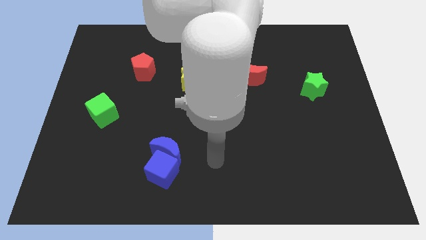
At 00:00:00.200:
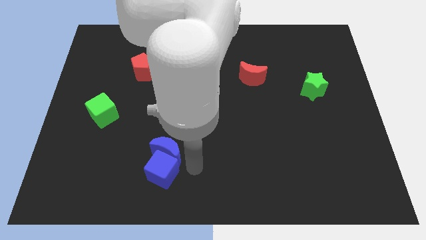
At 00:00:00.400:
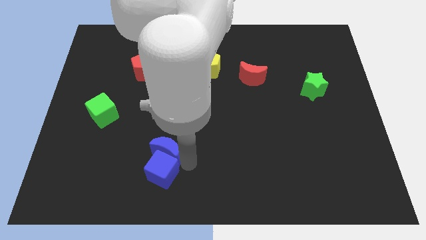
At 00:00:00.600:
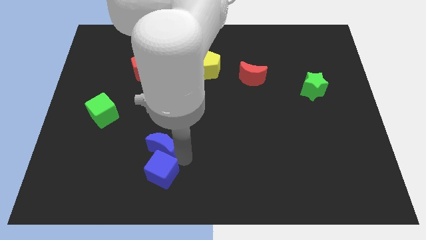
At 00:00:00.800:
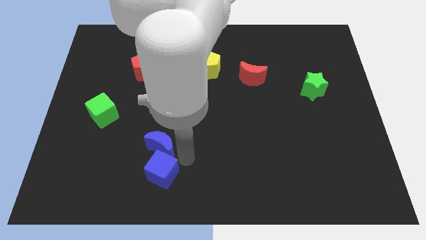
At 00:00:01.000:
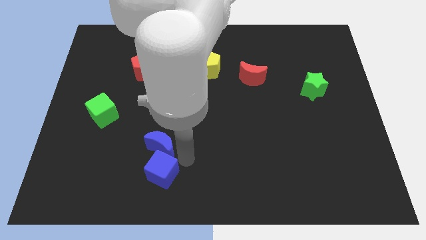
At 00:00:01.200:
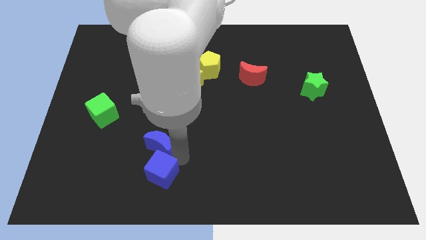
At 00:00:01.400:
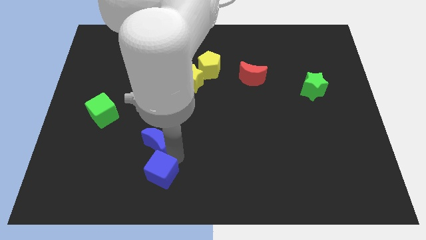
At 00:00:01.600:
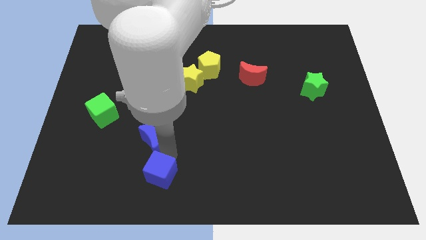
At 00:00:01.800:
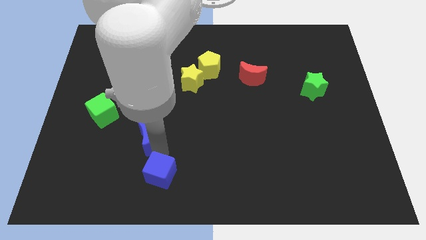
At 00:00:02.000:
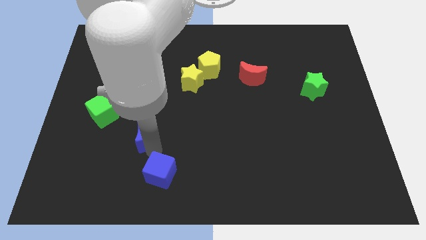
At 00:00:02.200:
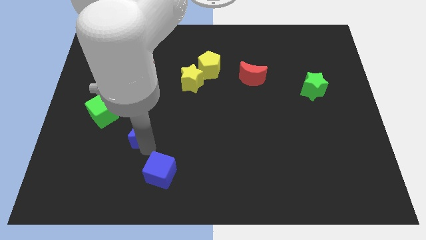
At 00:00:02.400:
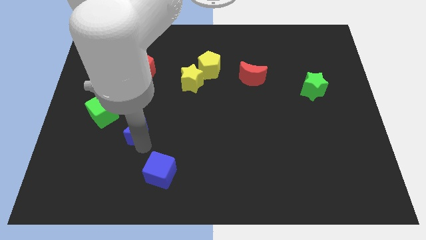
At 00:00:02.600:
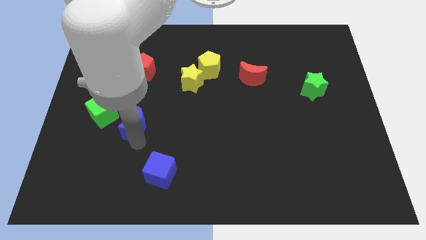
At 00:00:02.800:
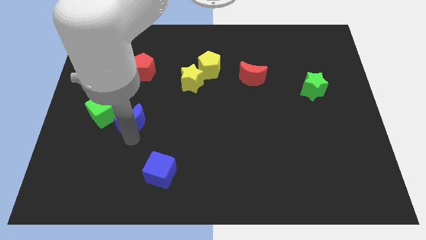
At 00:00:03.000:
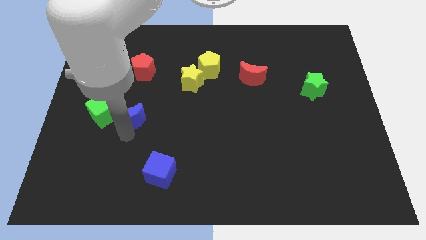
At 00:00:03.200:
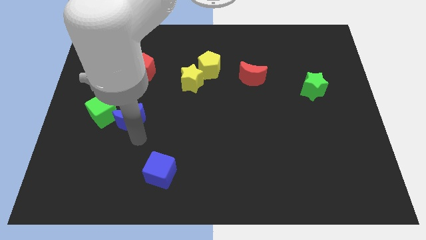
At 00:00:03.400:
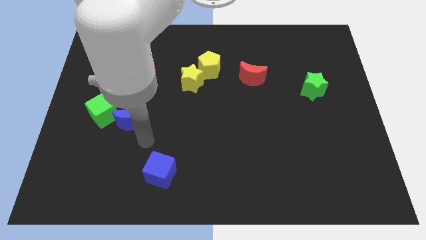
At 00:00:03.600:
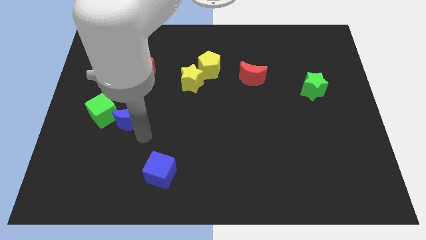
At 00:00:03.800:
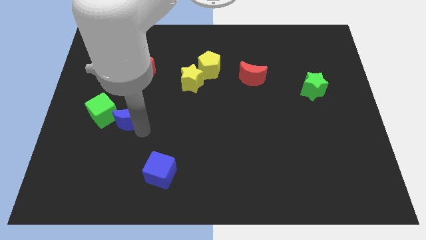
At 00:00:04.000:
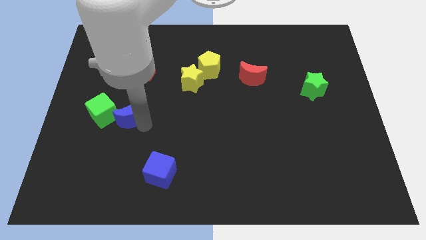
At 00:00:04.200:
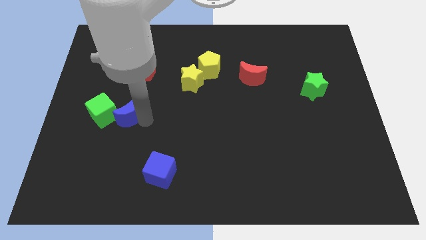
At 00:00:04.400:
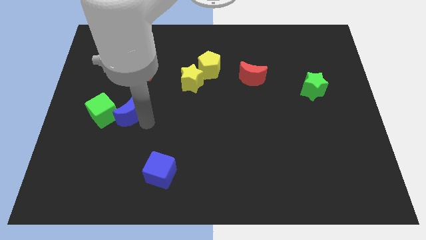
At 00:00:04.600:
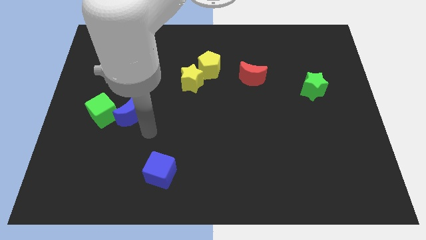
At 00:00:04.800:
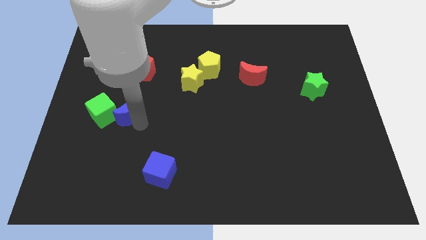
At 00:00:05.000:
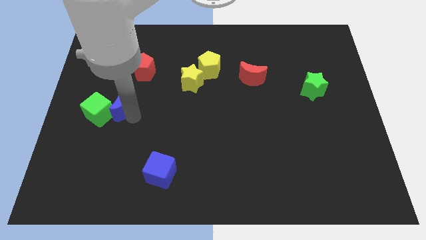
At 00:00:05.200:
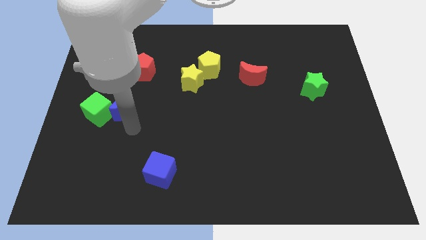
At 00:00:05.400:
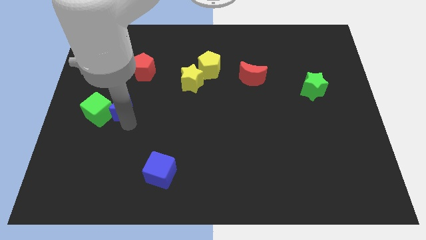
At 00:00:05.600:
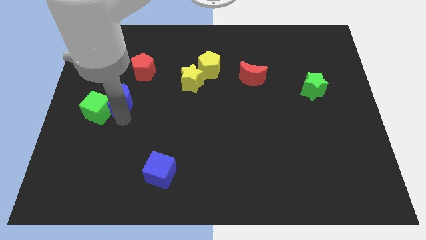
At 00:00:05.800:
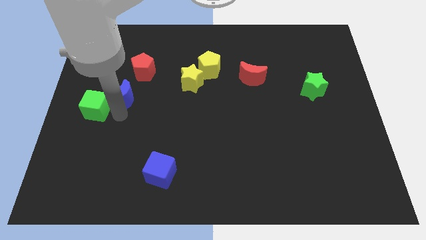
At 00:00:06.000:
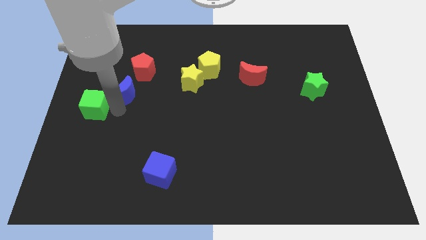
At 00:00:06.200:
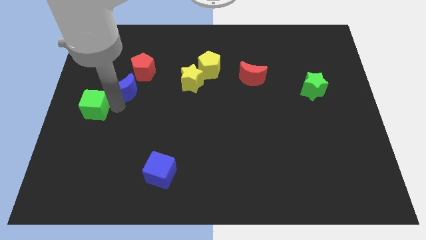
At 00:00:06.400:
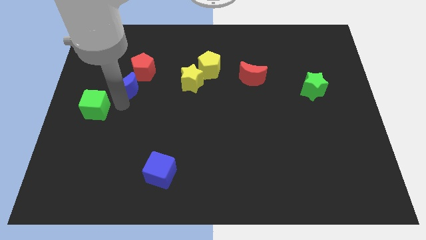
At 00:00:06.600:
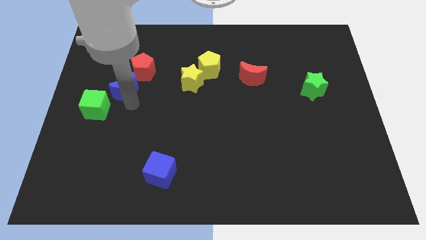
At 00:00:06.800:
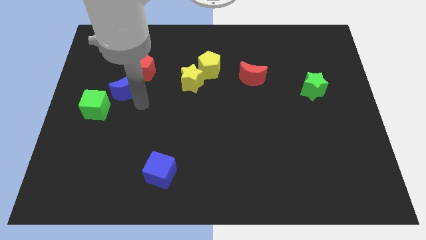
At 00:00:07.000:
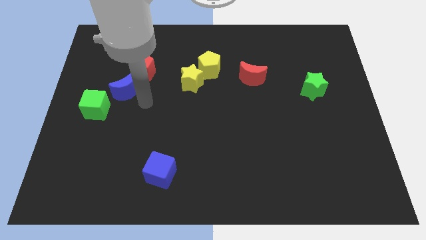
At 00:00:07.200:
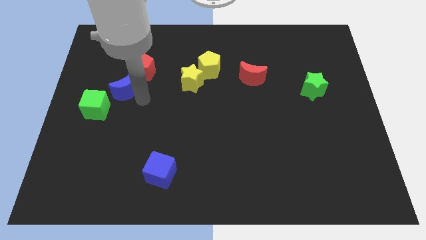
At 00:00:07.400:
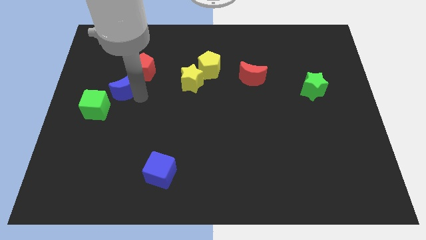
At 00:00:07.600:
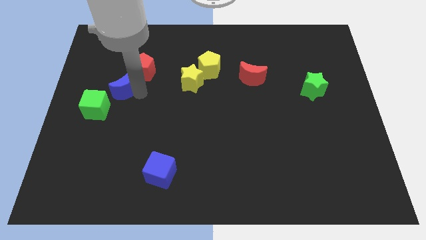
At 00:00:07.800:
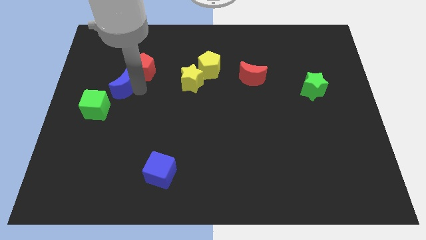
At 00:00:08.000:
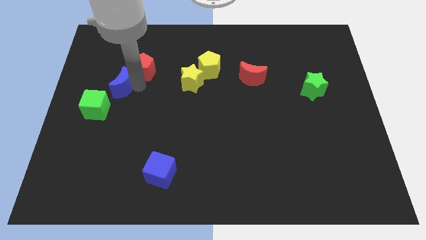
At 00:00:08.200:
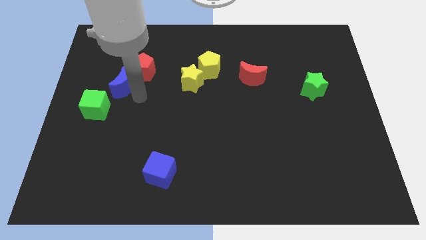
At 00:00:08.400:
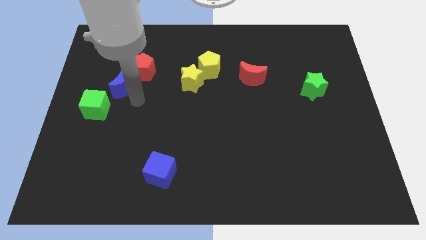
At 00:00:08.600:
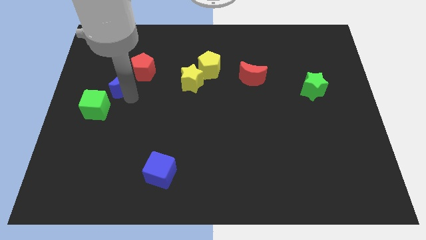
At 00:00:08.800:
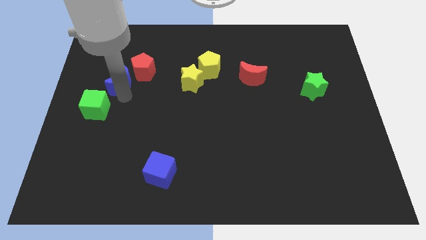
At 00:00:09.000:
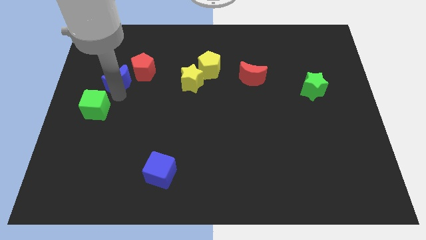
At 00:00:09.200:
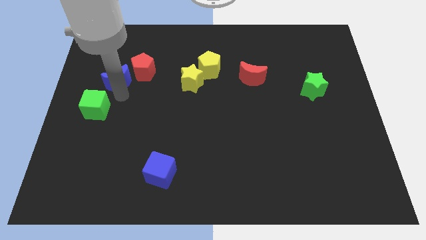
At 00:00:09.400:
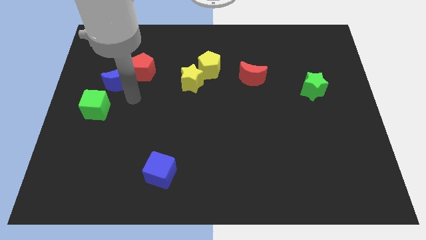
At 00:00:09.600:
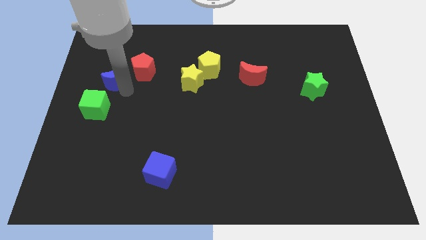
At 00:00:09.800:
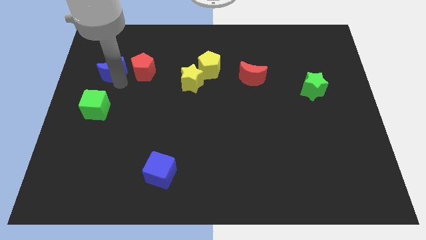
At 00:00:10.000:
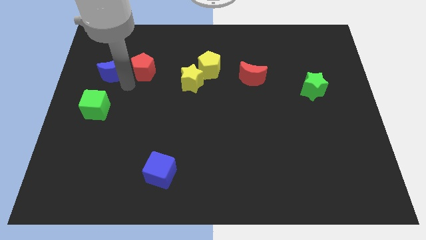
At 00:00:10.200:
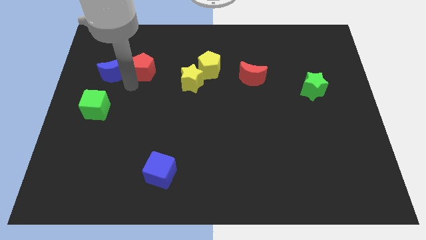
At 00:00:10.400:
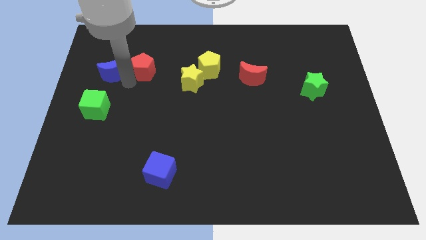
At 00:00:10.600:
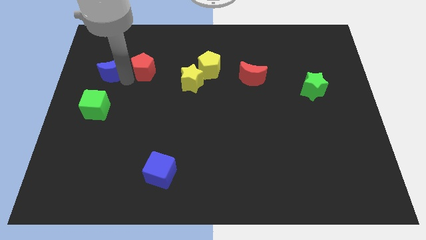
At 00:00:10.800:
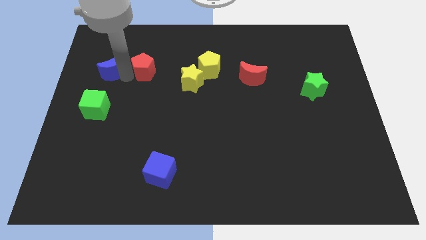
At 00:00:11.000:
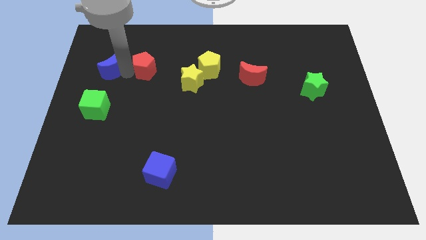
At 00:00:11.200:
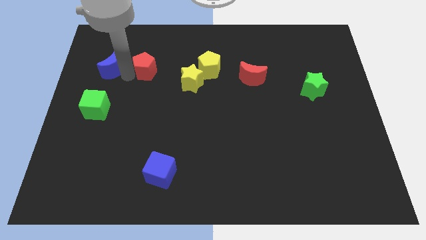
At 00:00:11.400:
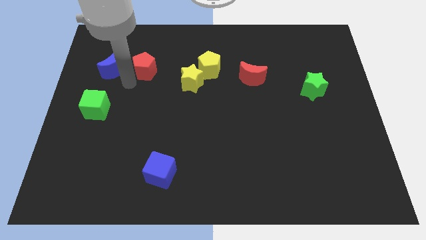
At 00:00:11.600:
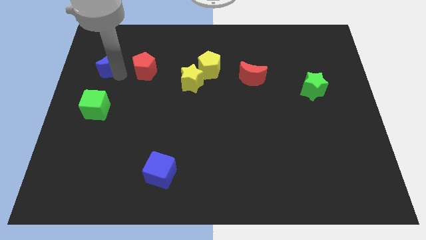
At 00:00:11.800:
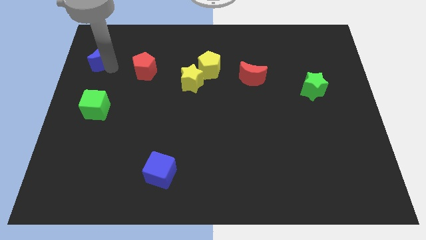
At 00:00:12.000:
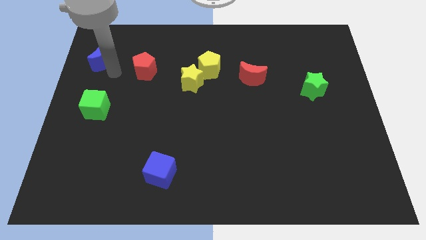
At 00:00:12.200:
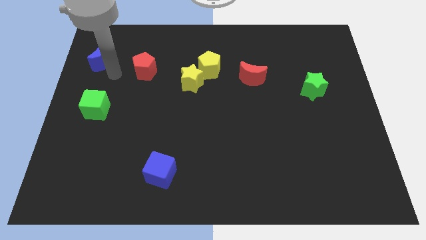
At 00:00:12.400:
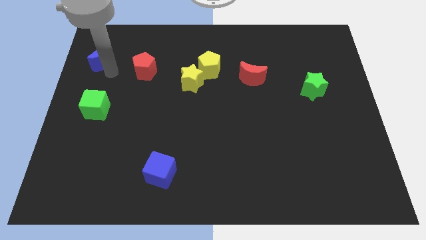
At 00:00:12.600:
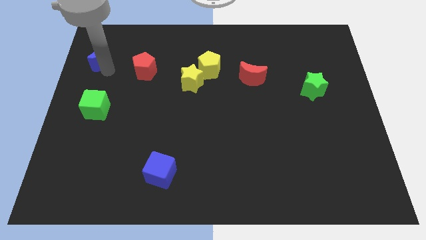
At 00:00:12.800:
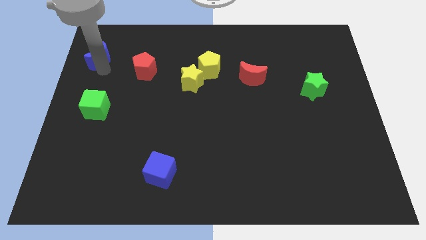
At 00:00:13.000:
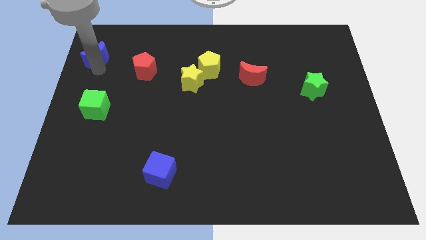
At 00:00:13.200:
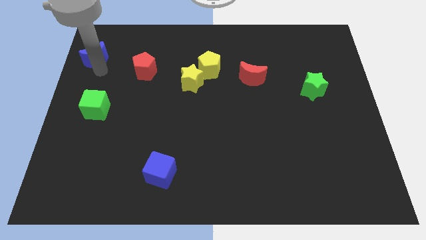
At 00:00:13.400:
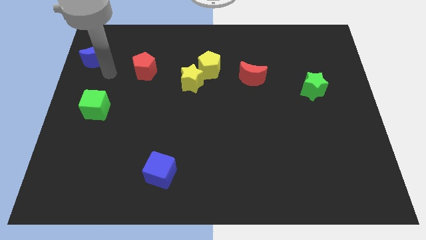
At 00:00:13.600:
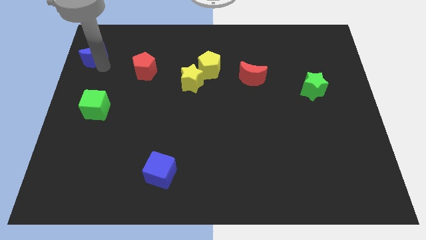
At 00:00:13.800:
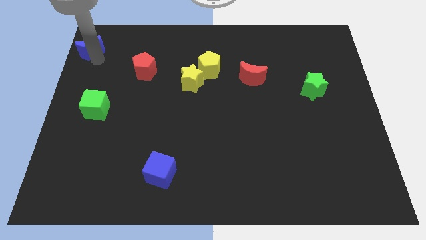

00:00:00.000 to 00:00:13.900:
push the blue moon to the top left of the board
